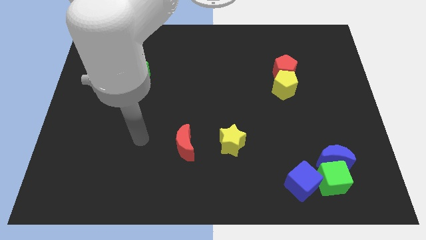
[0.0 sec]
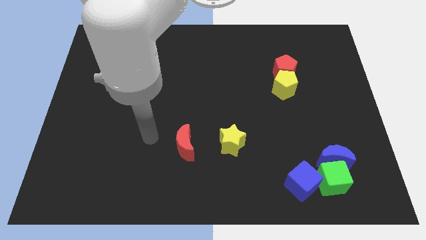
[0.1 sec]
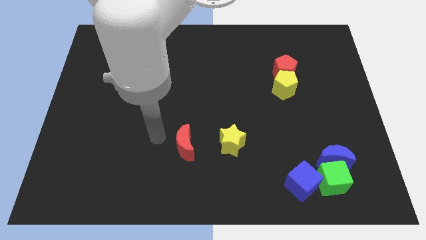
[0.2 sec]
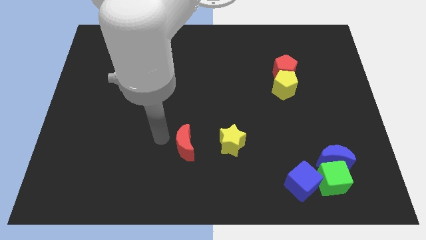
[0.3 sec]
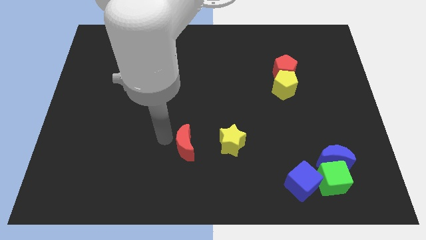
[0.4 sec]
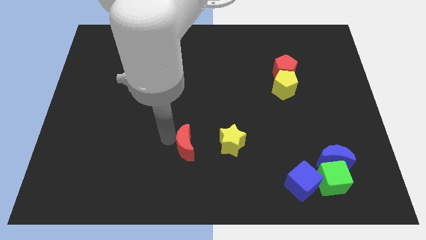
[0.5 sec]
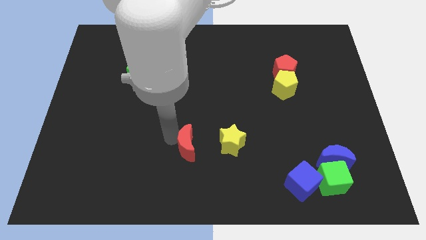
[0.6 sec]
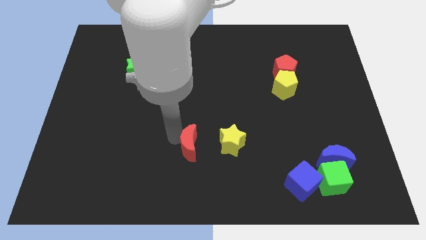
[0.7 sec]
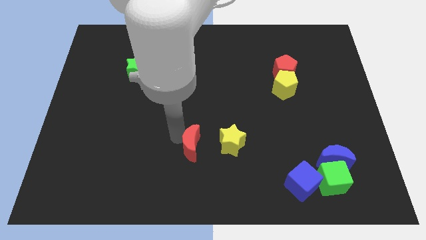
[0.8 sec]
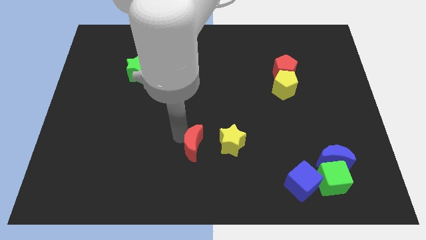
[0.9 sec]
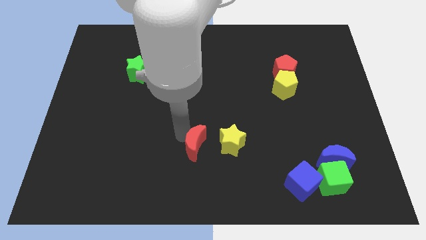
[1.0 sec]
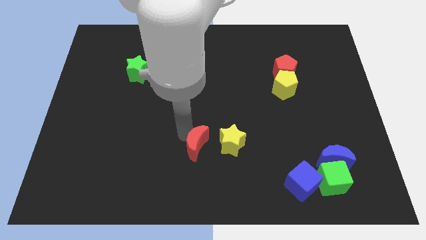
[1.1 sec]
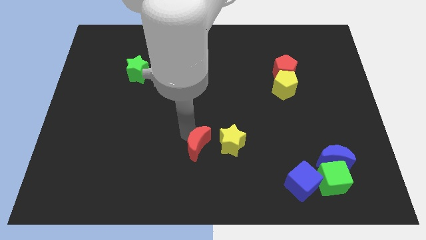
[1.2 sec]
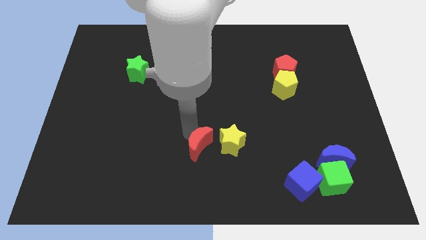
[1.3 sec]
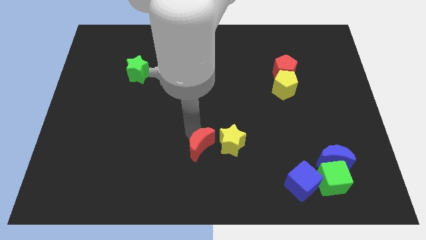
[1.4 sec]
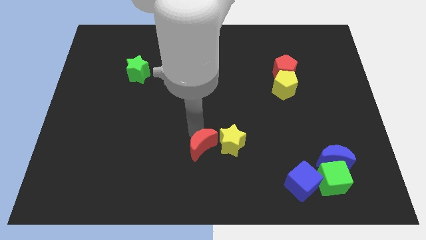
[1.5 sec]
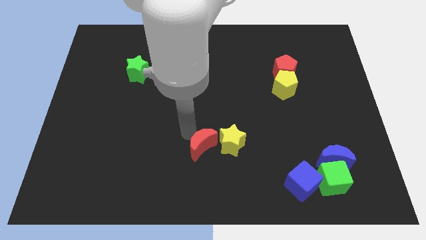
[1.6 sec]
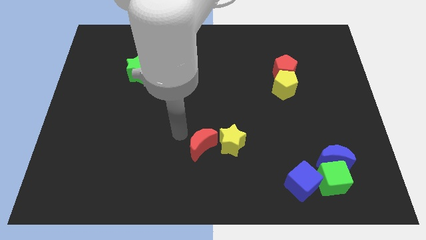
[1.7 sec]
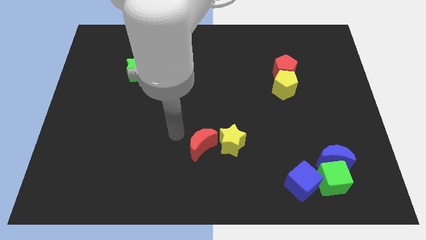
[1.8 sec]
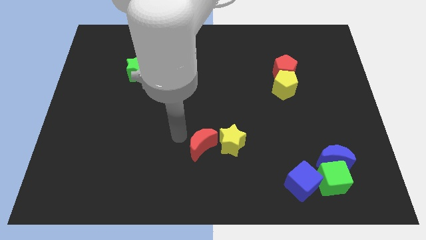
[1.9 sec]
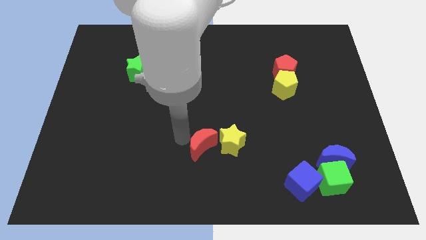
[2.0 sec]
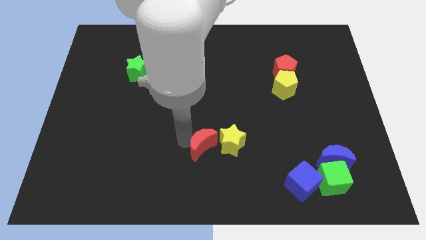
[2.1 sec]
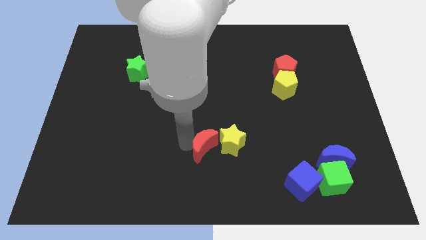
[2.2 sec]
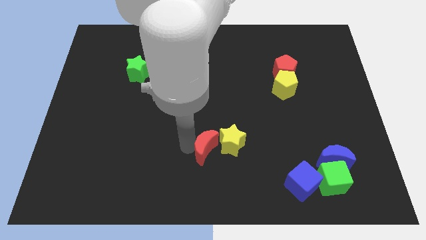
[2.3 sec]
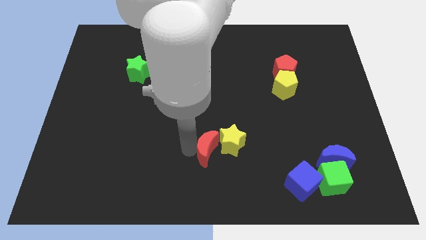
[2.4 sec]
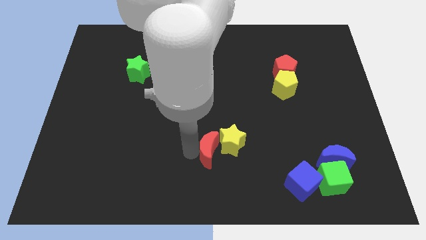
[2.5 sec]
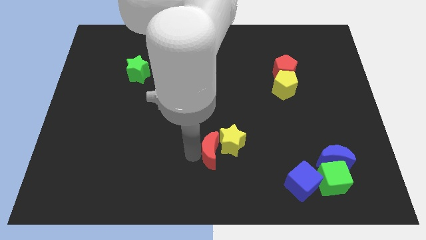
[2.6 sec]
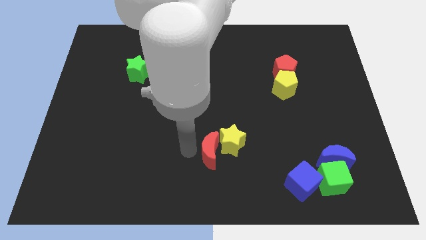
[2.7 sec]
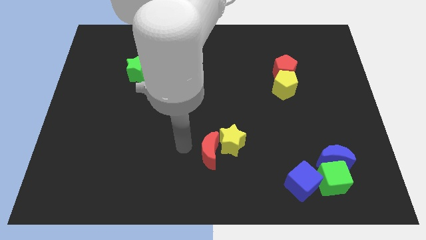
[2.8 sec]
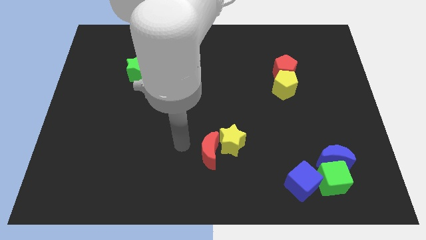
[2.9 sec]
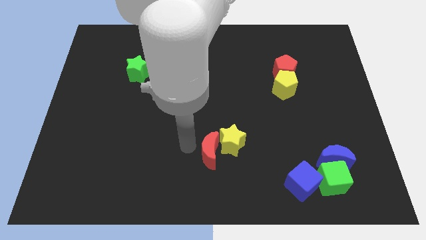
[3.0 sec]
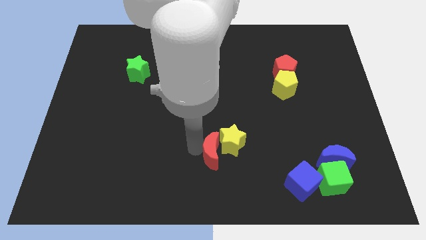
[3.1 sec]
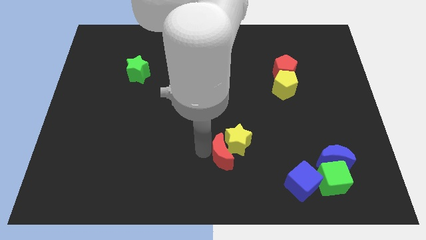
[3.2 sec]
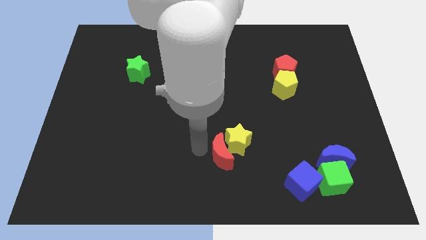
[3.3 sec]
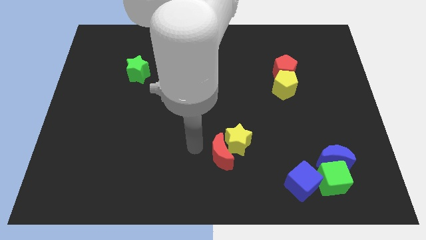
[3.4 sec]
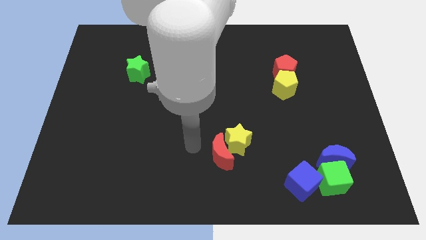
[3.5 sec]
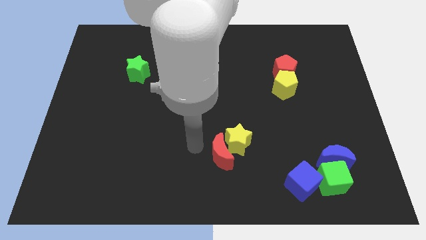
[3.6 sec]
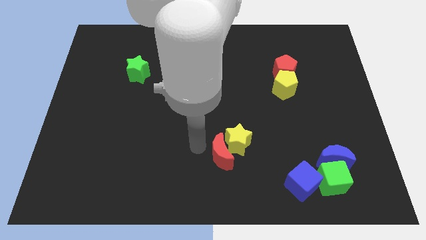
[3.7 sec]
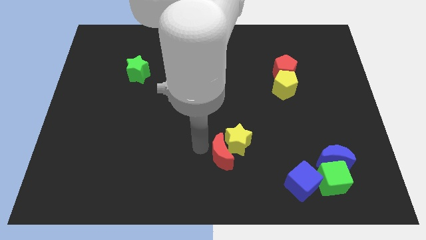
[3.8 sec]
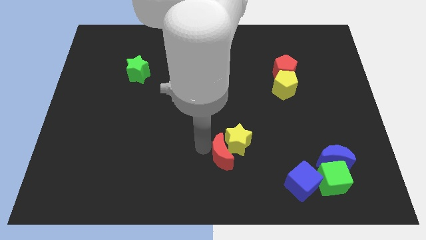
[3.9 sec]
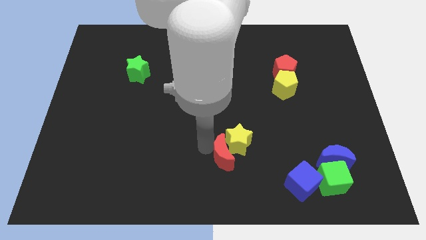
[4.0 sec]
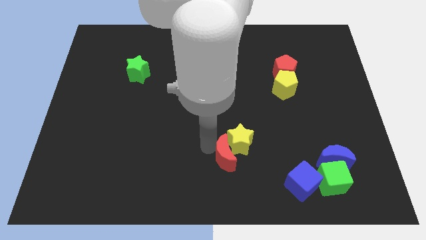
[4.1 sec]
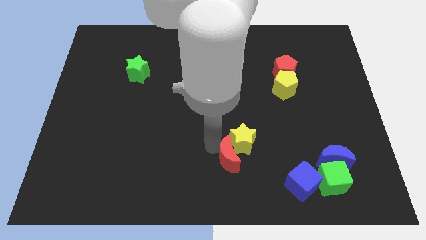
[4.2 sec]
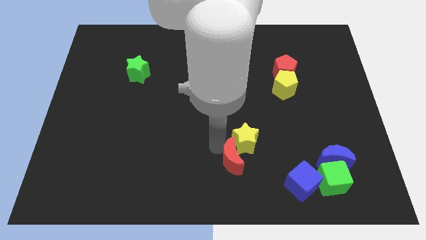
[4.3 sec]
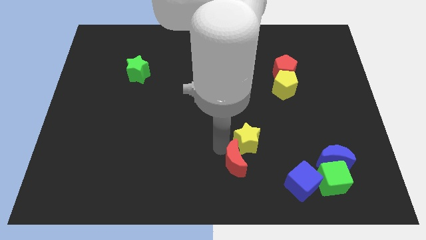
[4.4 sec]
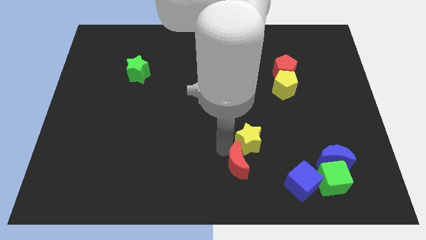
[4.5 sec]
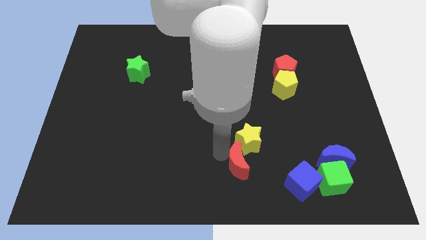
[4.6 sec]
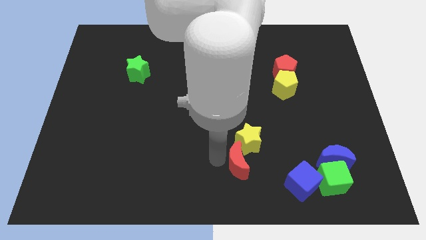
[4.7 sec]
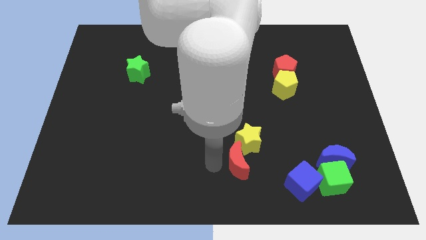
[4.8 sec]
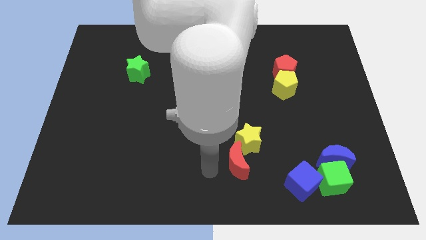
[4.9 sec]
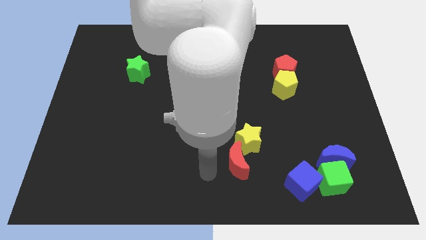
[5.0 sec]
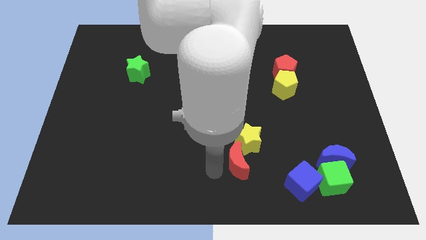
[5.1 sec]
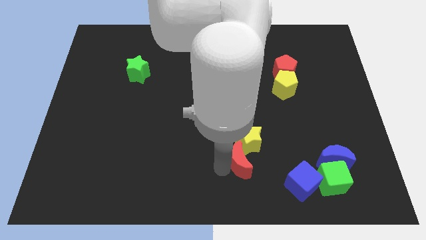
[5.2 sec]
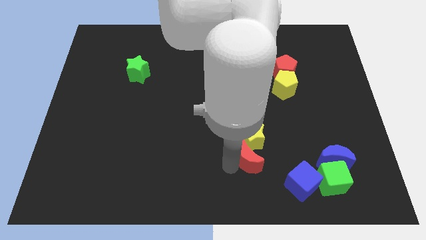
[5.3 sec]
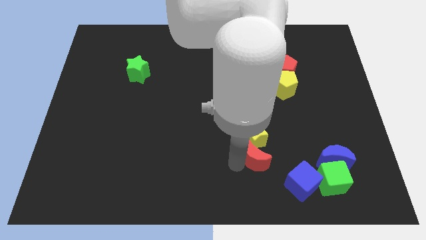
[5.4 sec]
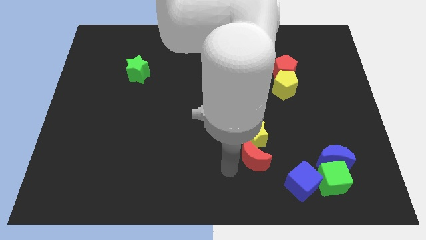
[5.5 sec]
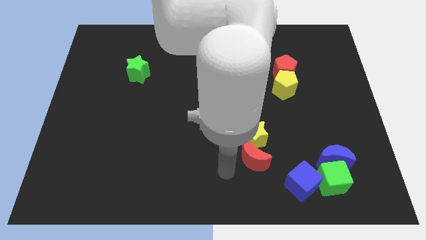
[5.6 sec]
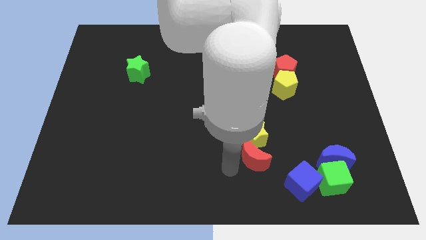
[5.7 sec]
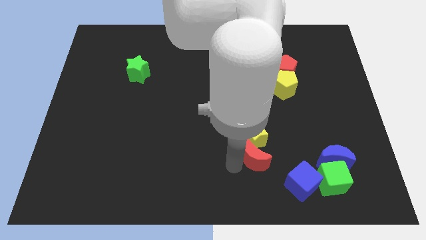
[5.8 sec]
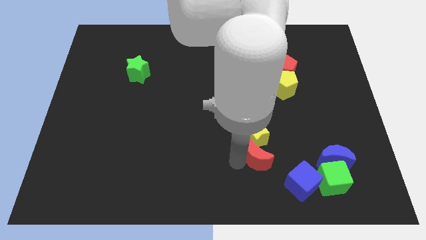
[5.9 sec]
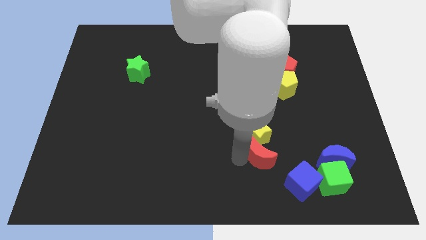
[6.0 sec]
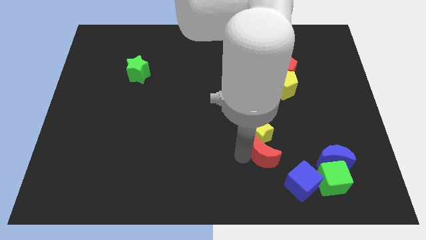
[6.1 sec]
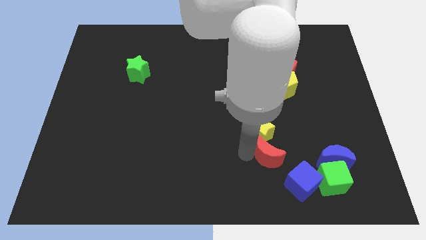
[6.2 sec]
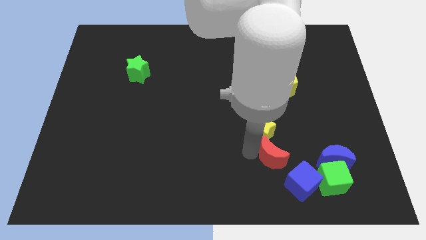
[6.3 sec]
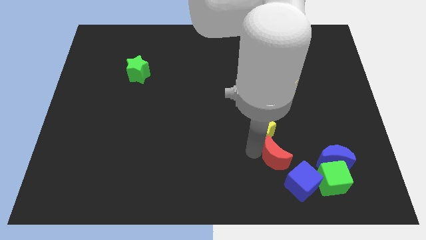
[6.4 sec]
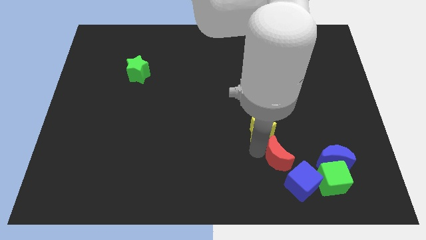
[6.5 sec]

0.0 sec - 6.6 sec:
slide the red moon above the blue cube
